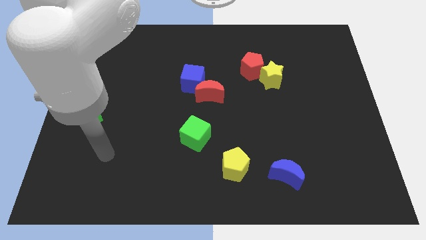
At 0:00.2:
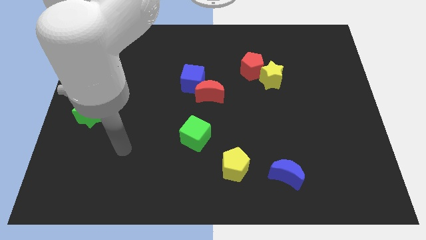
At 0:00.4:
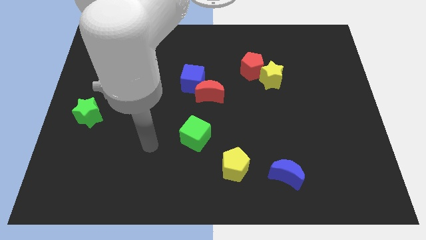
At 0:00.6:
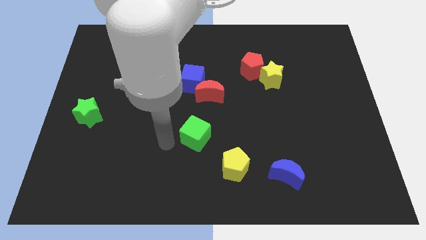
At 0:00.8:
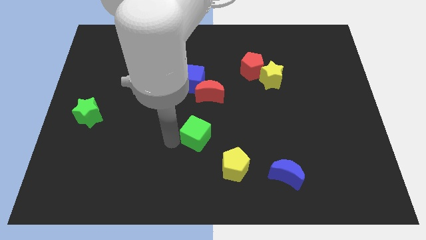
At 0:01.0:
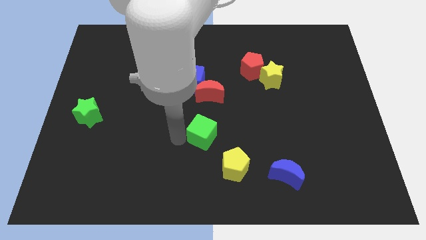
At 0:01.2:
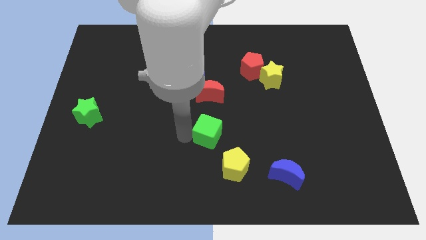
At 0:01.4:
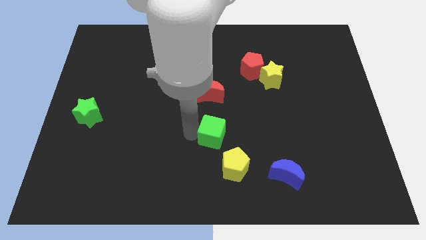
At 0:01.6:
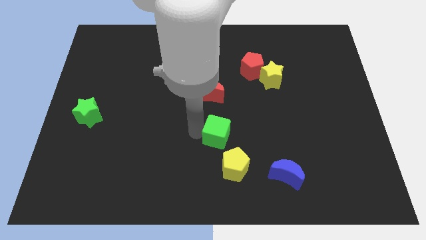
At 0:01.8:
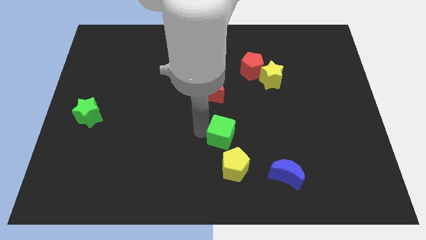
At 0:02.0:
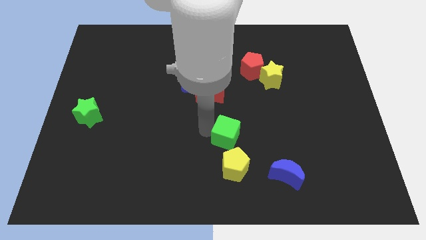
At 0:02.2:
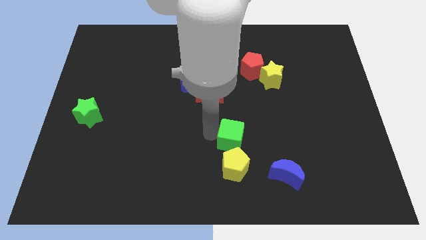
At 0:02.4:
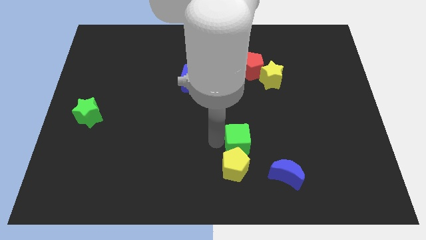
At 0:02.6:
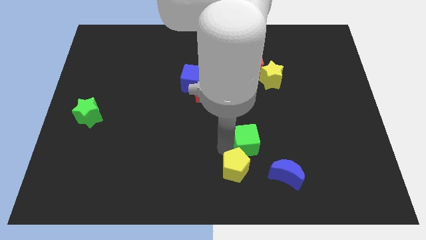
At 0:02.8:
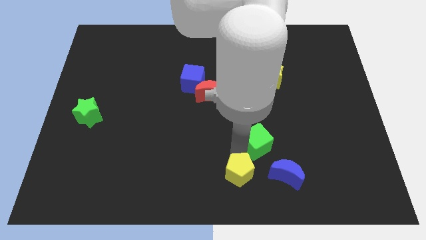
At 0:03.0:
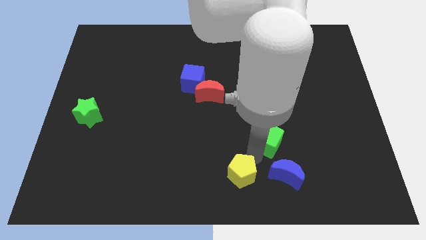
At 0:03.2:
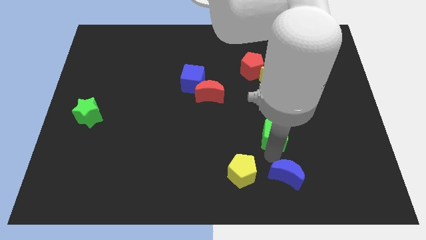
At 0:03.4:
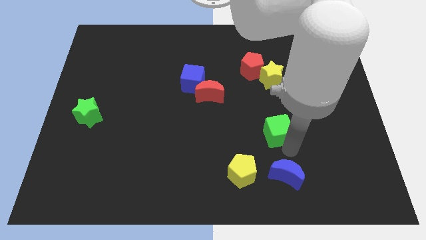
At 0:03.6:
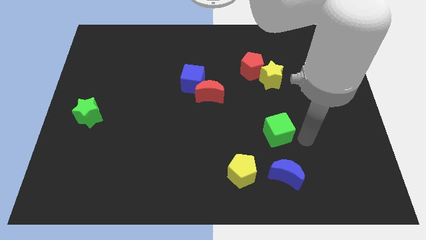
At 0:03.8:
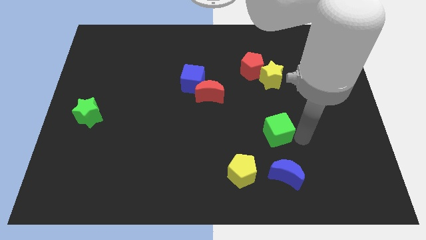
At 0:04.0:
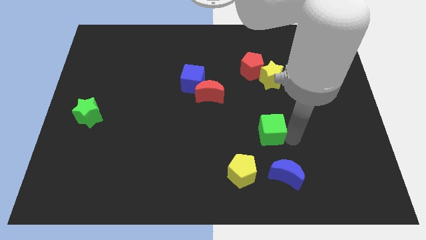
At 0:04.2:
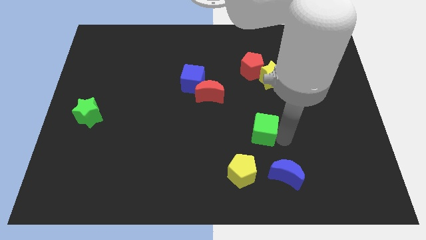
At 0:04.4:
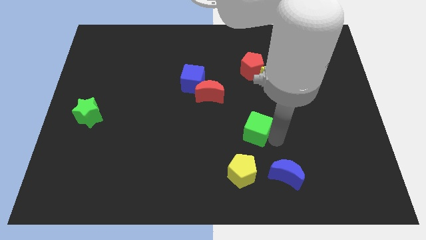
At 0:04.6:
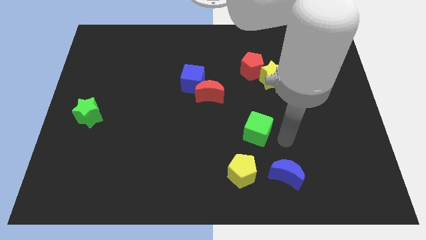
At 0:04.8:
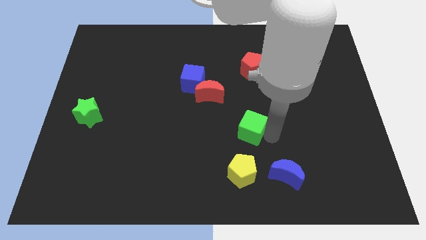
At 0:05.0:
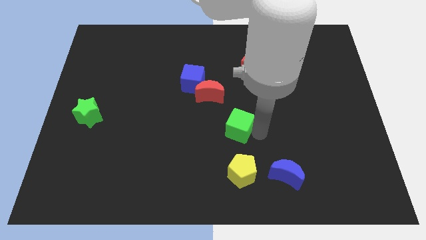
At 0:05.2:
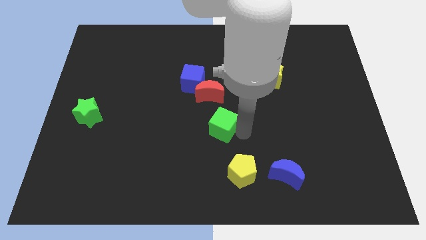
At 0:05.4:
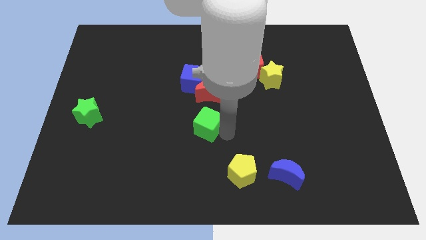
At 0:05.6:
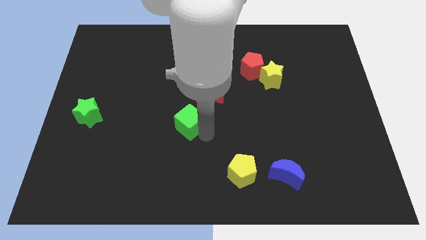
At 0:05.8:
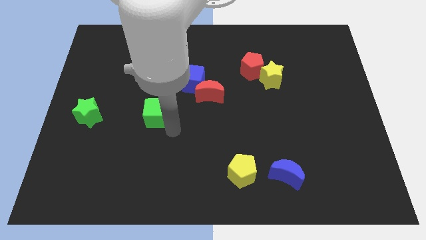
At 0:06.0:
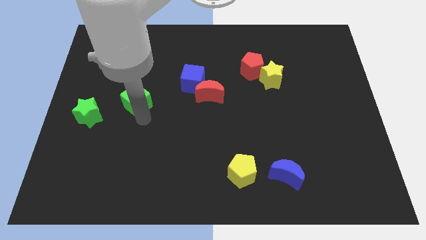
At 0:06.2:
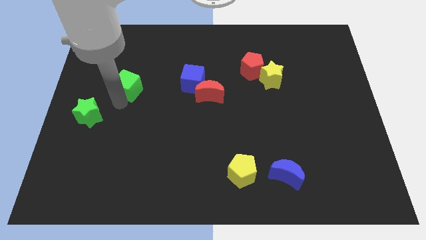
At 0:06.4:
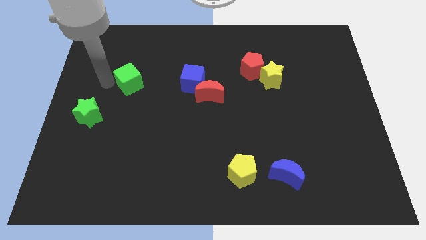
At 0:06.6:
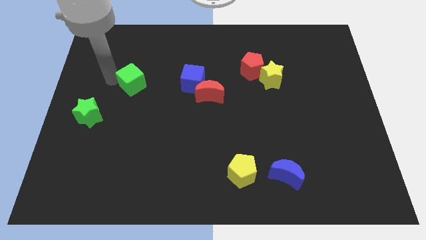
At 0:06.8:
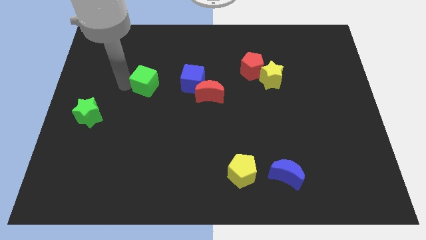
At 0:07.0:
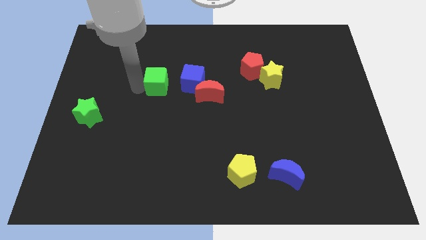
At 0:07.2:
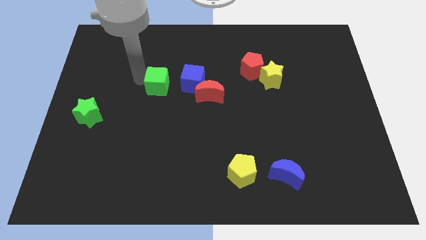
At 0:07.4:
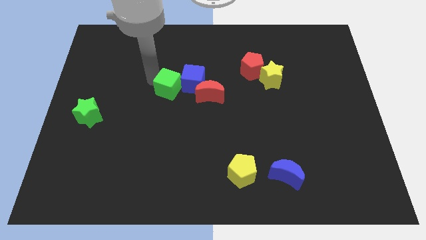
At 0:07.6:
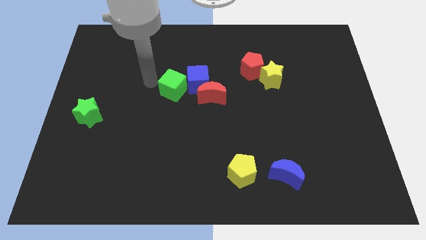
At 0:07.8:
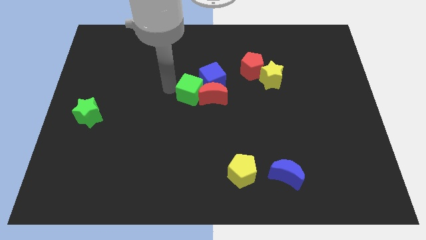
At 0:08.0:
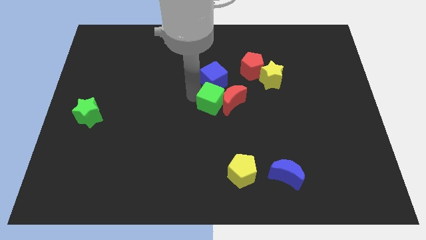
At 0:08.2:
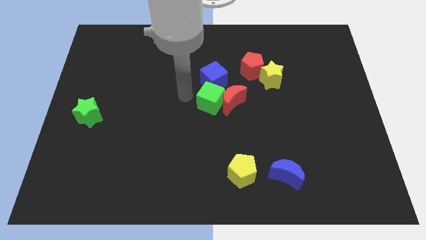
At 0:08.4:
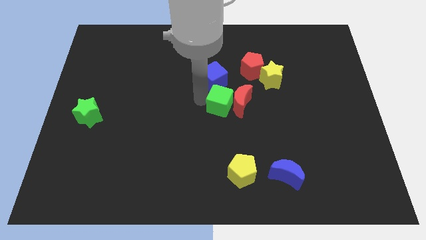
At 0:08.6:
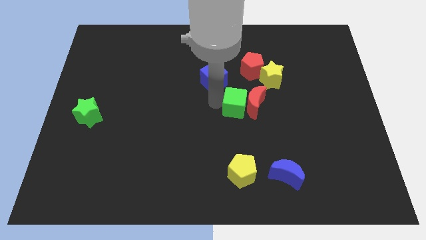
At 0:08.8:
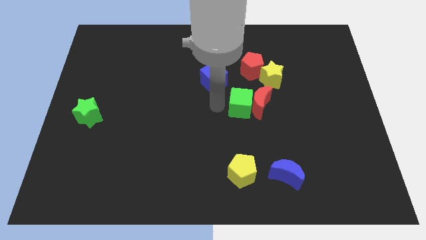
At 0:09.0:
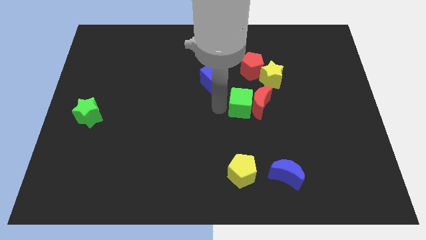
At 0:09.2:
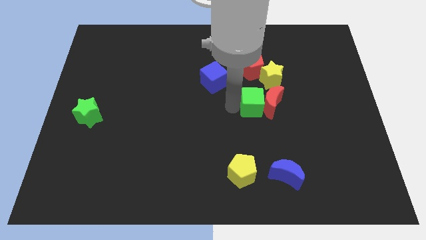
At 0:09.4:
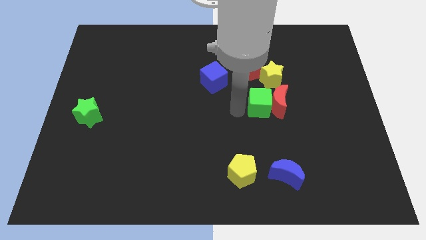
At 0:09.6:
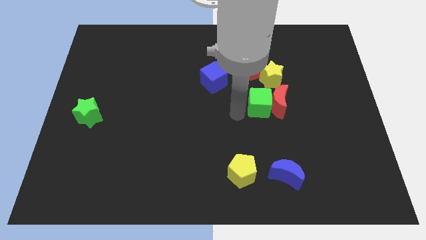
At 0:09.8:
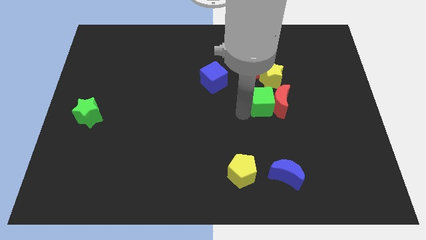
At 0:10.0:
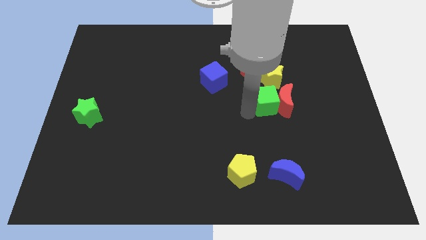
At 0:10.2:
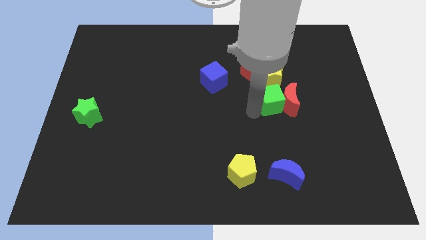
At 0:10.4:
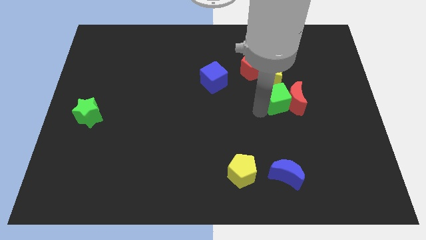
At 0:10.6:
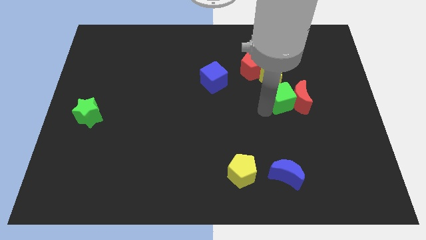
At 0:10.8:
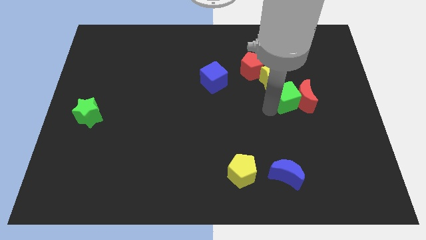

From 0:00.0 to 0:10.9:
push the green cube upwards and to the right

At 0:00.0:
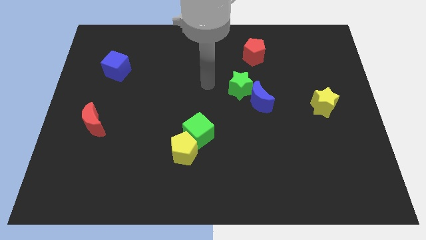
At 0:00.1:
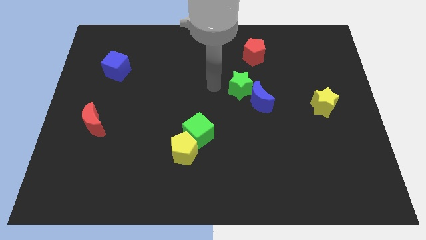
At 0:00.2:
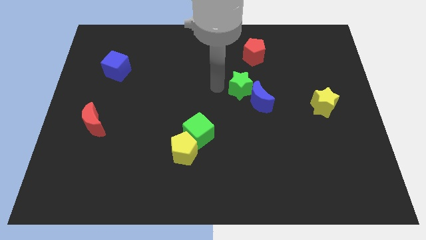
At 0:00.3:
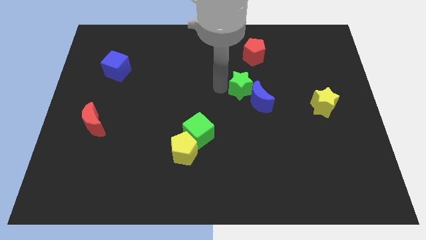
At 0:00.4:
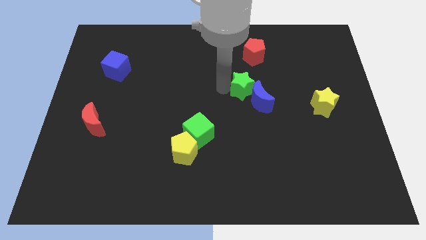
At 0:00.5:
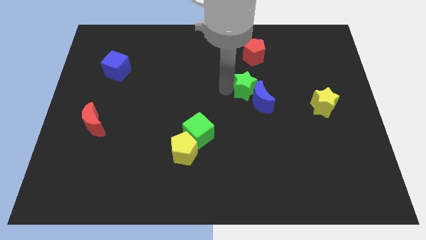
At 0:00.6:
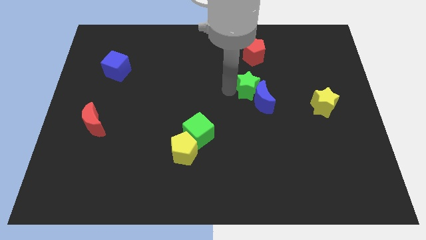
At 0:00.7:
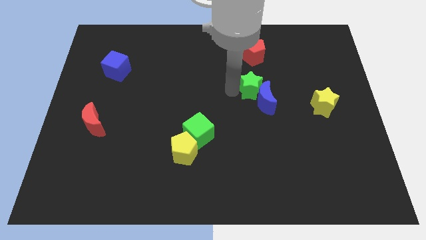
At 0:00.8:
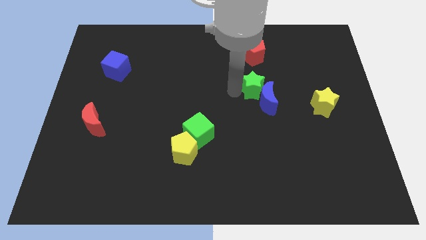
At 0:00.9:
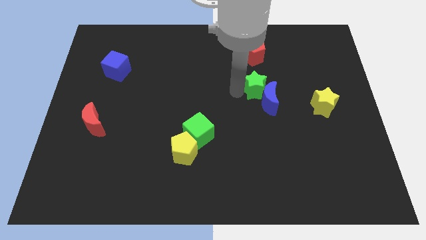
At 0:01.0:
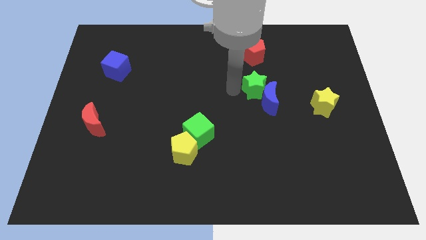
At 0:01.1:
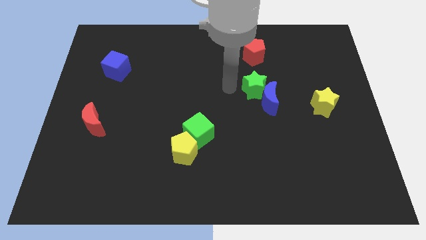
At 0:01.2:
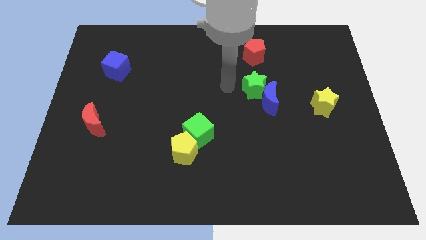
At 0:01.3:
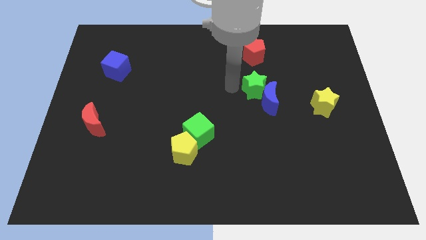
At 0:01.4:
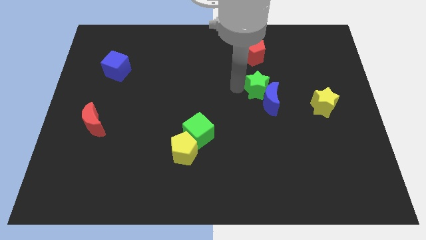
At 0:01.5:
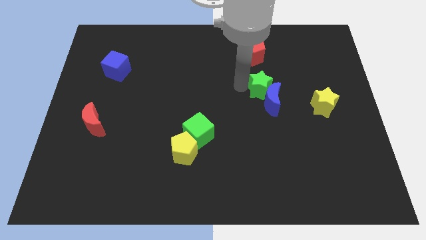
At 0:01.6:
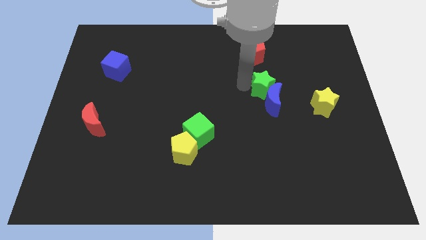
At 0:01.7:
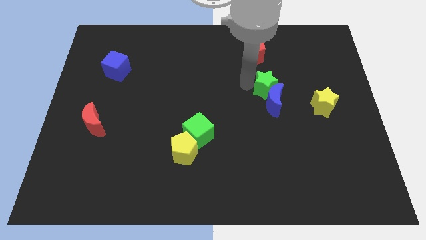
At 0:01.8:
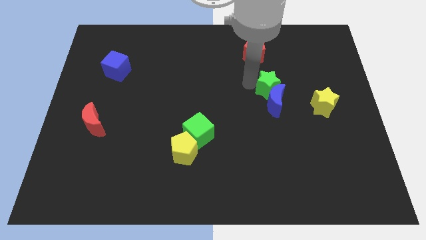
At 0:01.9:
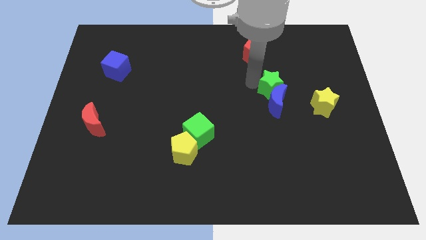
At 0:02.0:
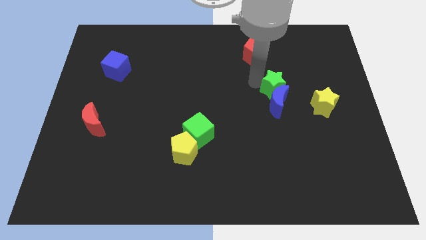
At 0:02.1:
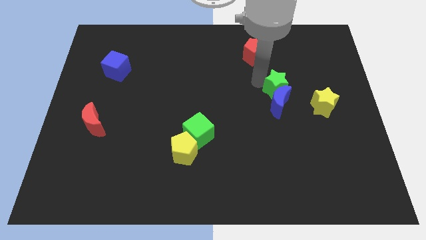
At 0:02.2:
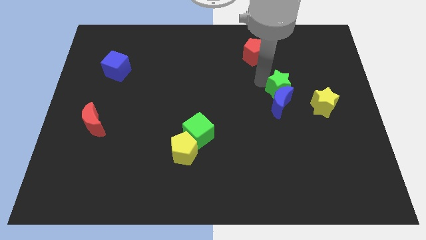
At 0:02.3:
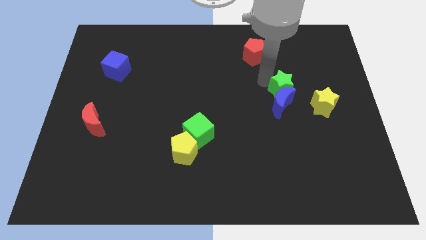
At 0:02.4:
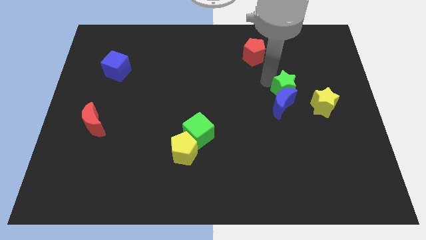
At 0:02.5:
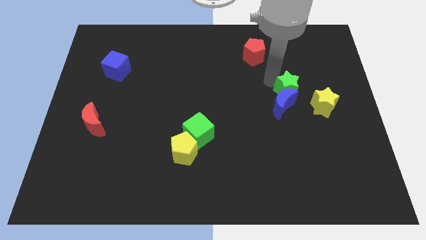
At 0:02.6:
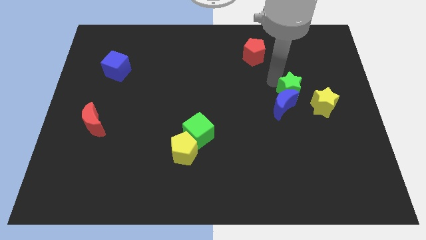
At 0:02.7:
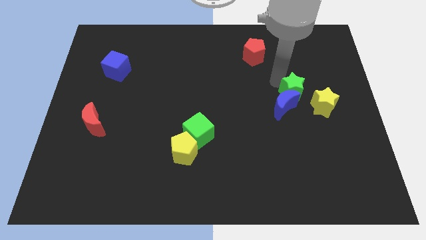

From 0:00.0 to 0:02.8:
push the green star a little bit downwards and right diagonally
